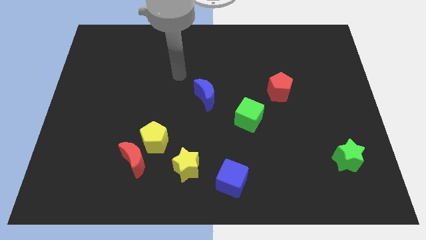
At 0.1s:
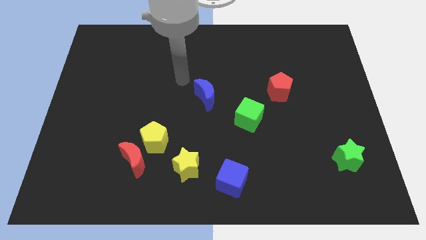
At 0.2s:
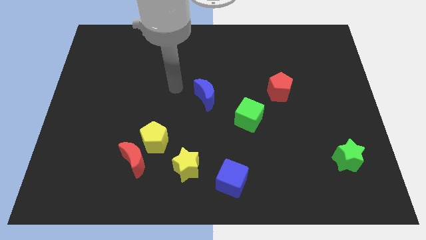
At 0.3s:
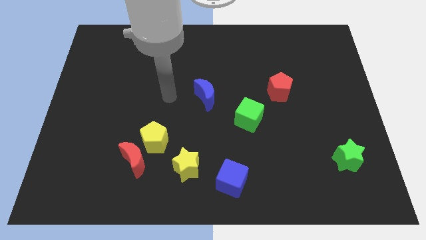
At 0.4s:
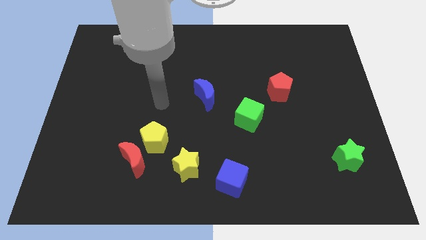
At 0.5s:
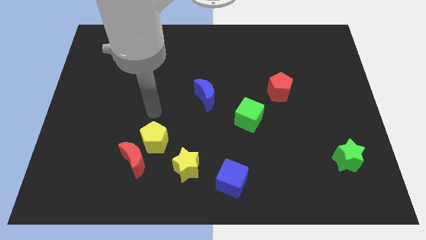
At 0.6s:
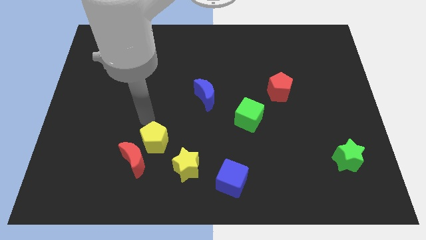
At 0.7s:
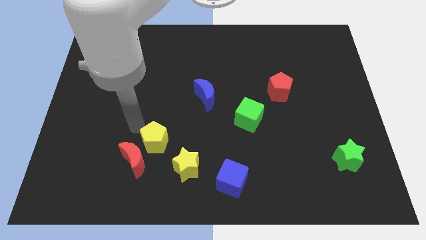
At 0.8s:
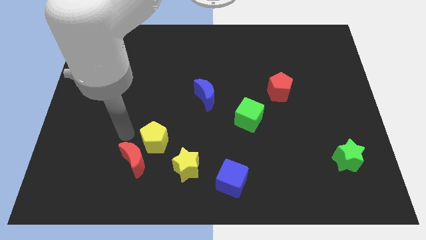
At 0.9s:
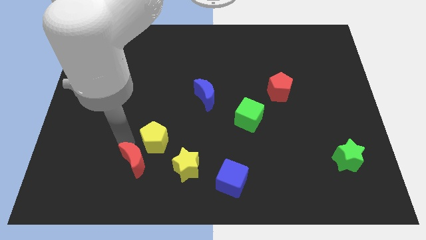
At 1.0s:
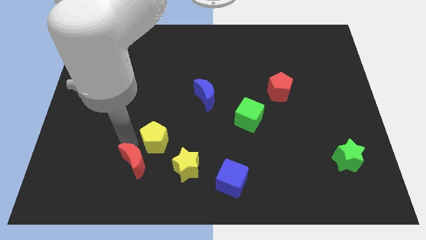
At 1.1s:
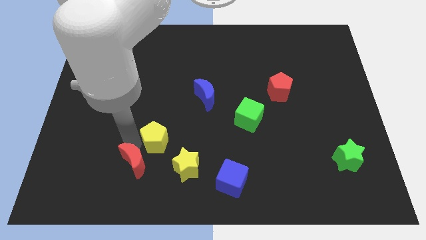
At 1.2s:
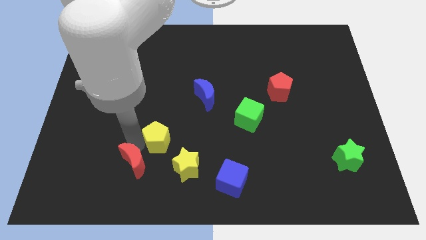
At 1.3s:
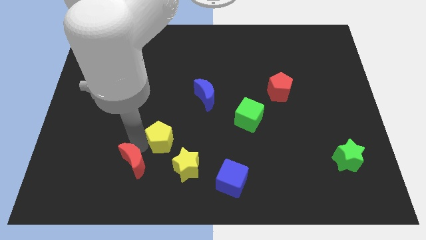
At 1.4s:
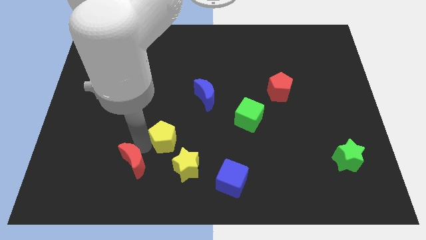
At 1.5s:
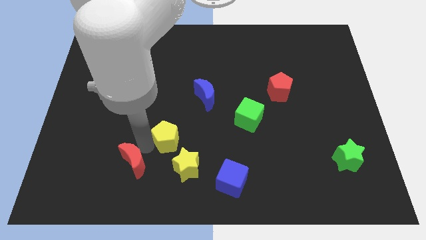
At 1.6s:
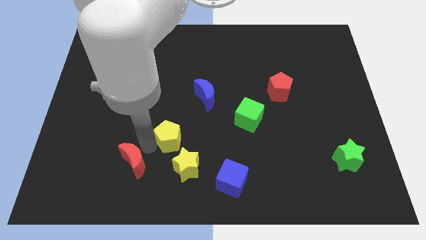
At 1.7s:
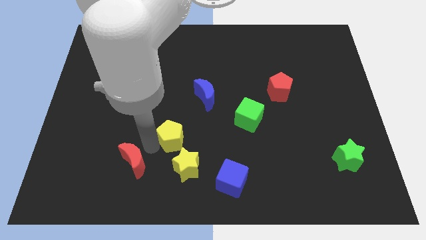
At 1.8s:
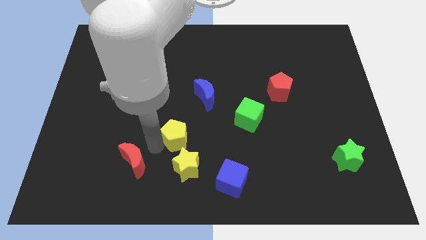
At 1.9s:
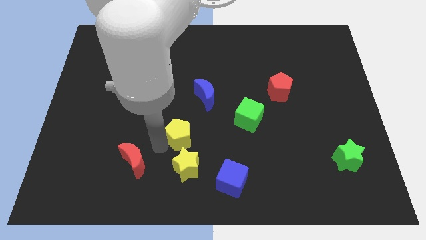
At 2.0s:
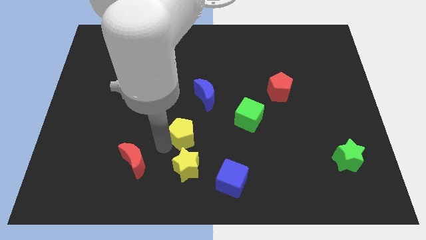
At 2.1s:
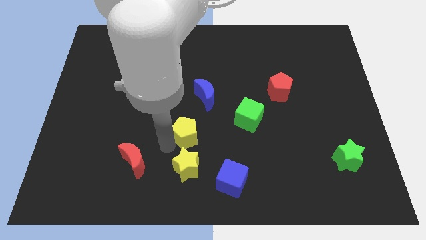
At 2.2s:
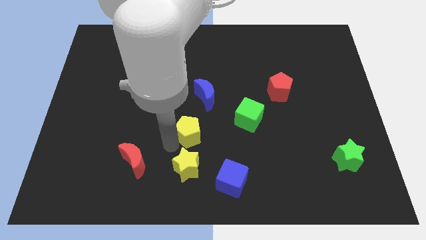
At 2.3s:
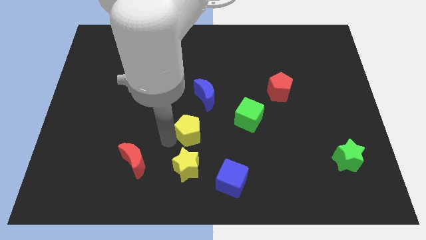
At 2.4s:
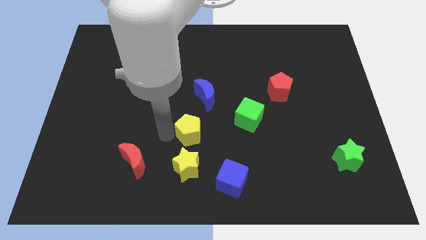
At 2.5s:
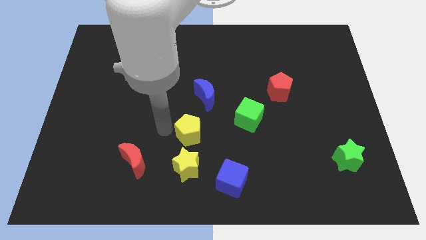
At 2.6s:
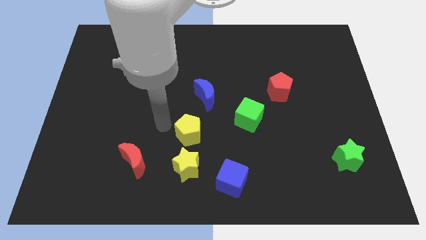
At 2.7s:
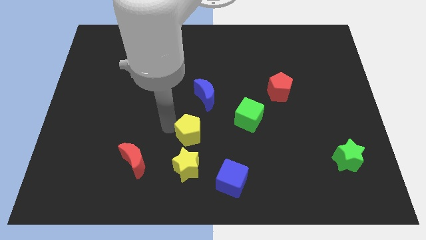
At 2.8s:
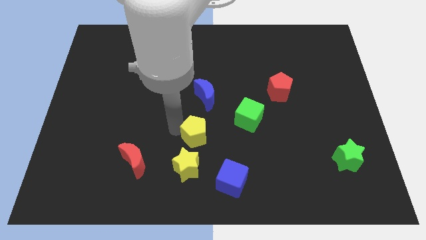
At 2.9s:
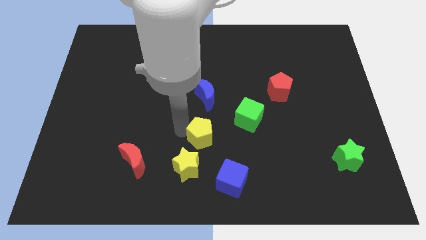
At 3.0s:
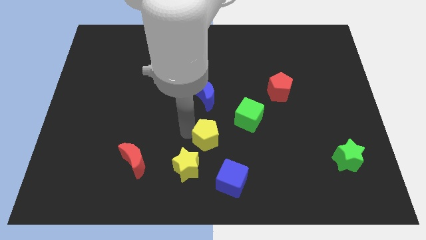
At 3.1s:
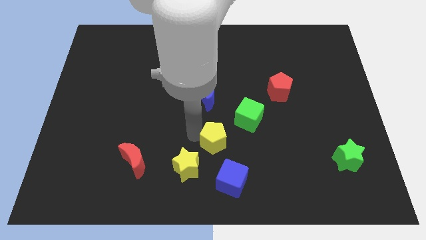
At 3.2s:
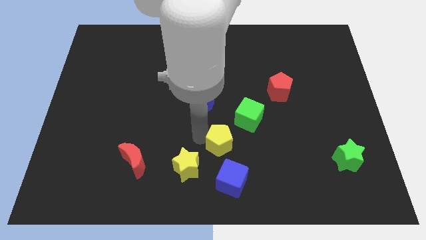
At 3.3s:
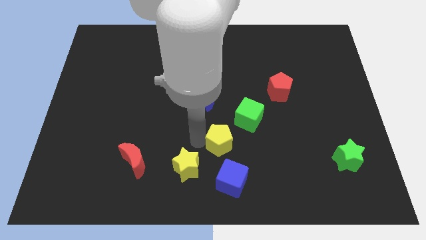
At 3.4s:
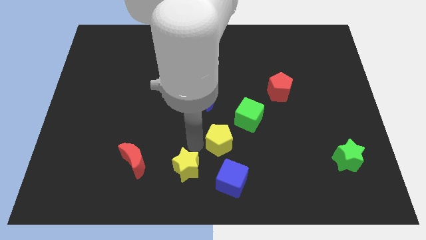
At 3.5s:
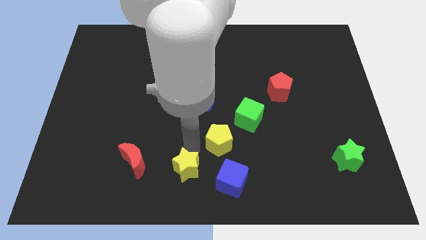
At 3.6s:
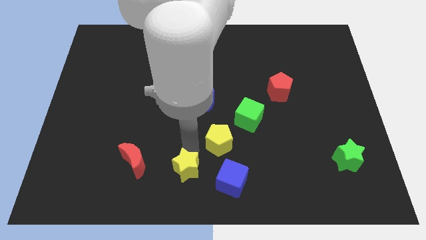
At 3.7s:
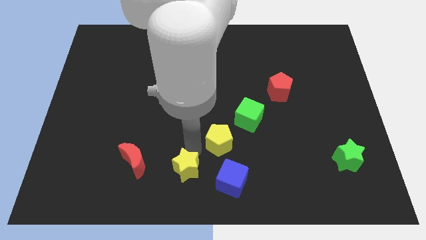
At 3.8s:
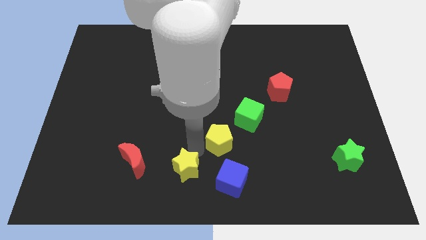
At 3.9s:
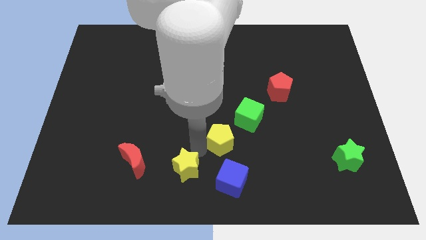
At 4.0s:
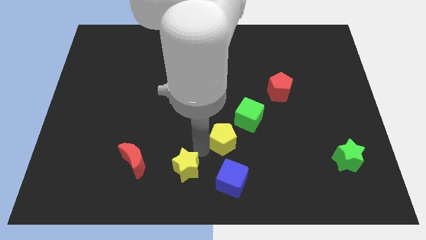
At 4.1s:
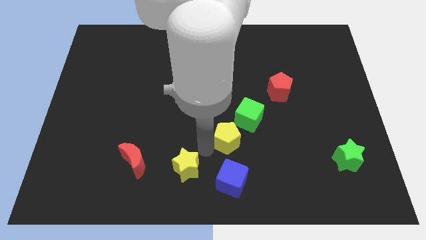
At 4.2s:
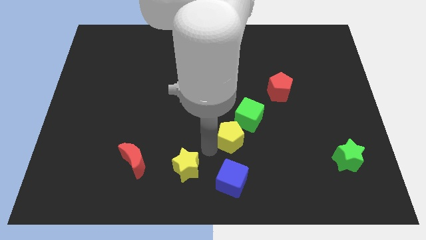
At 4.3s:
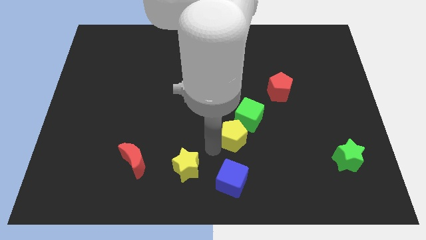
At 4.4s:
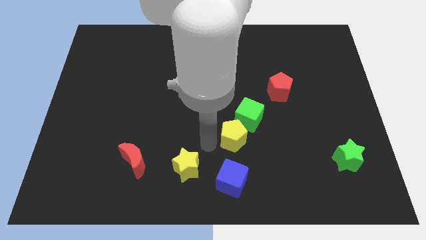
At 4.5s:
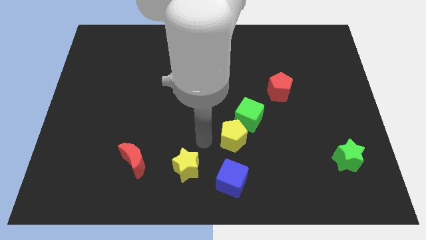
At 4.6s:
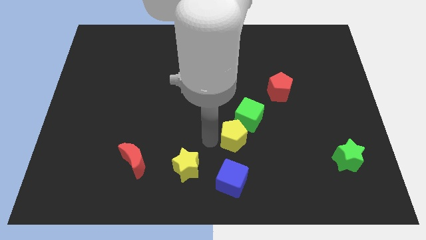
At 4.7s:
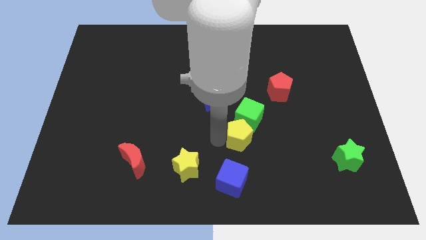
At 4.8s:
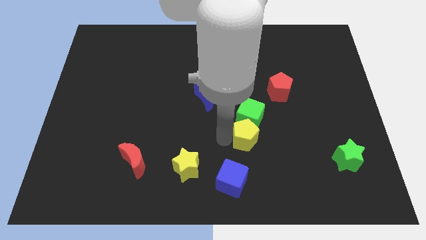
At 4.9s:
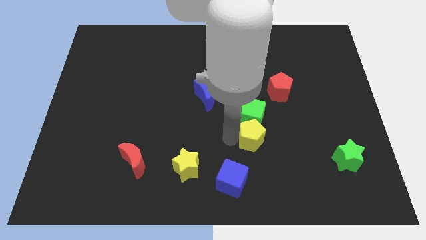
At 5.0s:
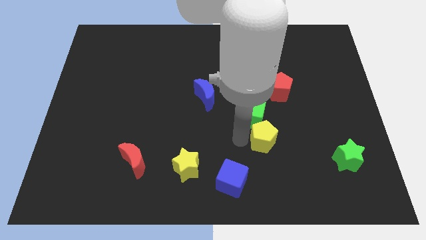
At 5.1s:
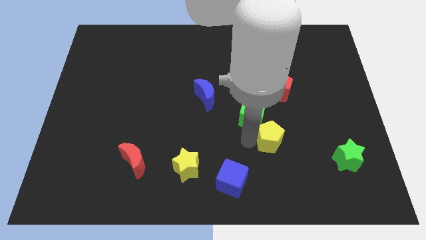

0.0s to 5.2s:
put the yellow pentagon below the red pentagon

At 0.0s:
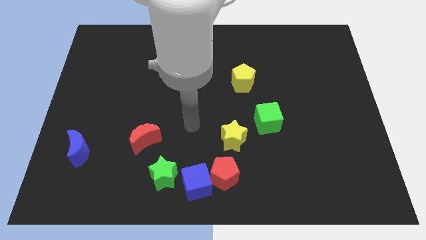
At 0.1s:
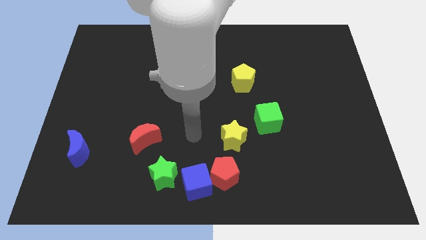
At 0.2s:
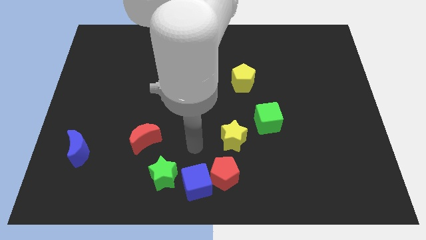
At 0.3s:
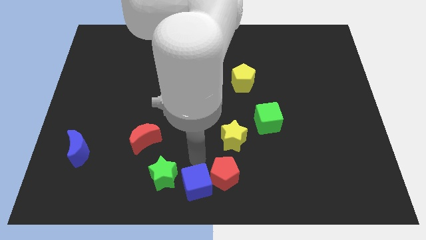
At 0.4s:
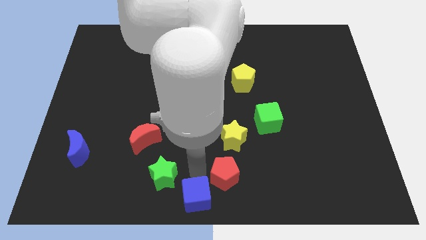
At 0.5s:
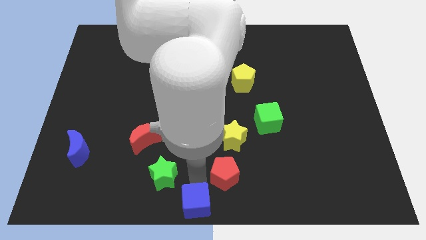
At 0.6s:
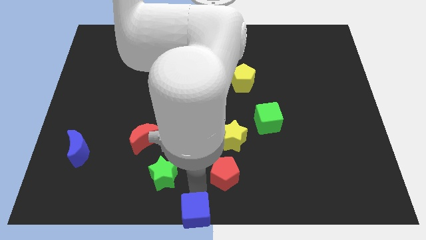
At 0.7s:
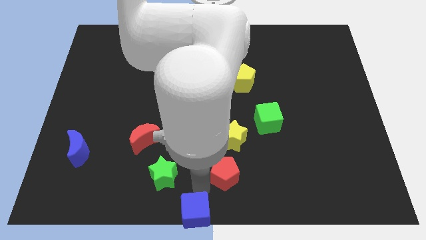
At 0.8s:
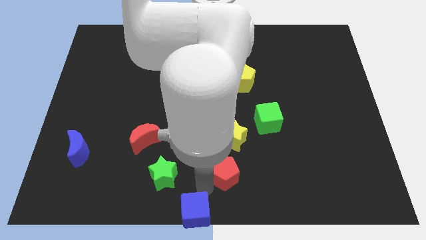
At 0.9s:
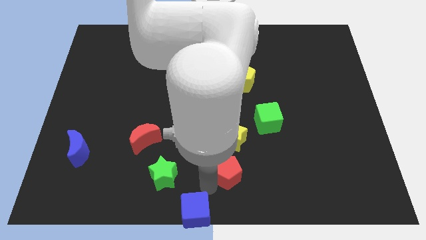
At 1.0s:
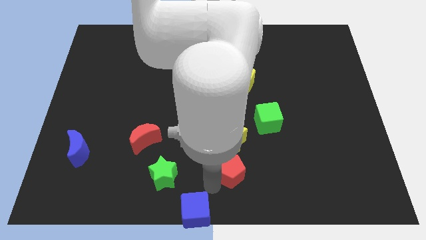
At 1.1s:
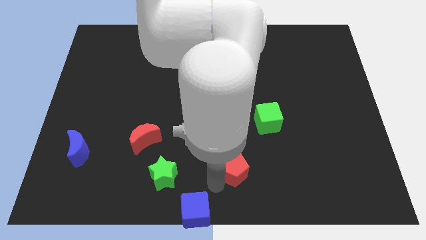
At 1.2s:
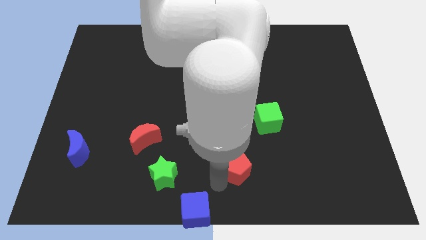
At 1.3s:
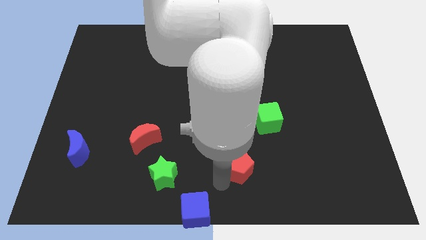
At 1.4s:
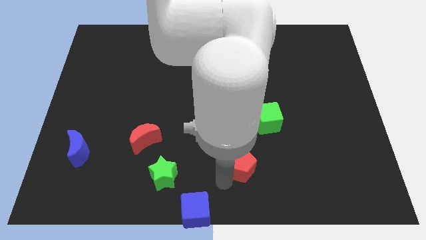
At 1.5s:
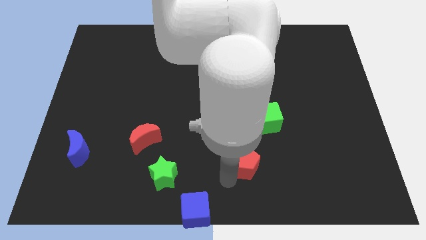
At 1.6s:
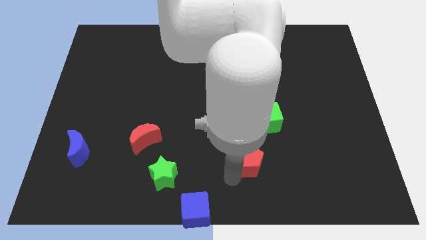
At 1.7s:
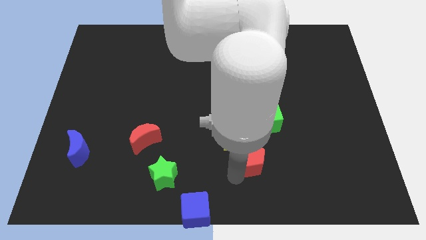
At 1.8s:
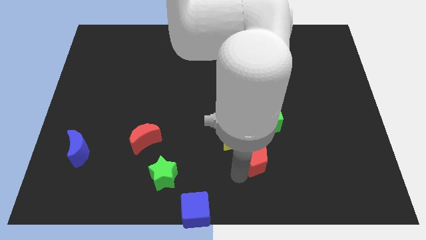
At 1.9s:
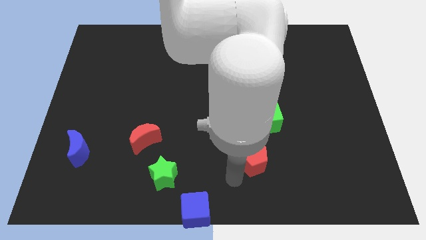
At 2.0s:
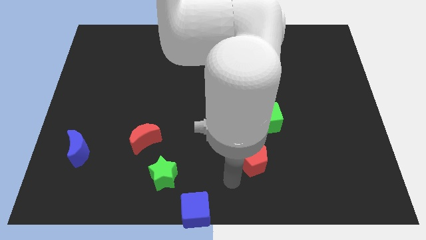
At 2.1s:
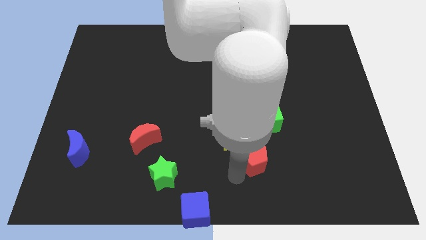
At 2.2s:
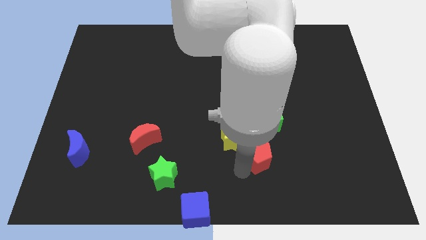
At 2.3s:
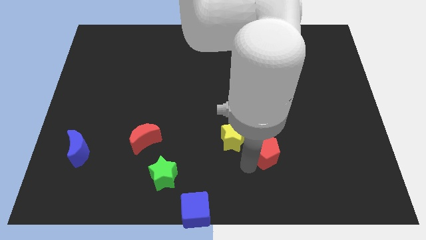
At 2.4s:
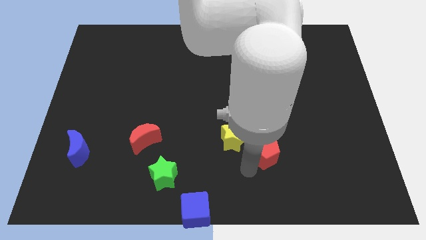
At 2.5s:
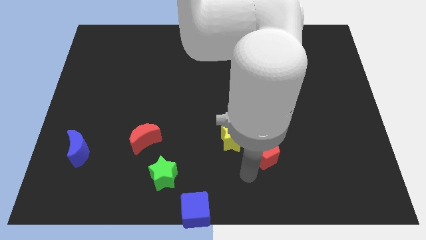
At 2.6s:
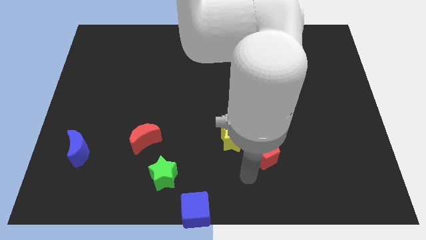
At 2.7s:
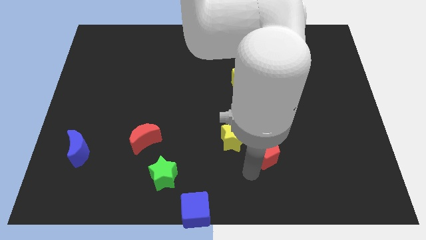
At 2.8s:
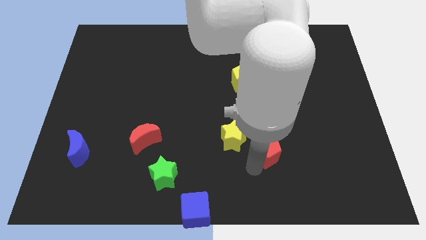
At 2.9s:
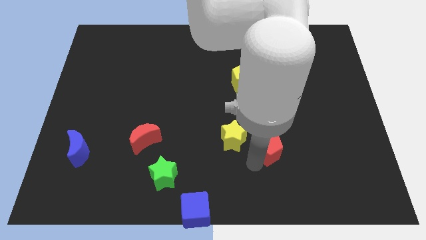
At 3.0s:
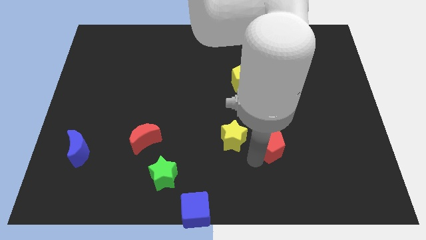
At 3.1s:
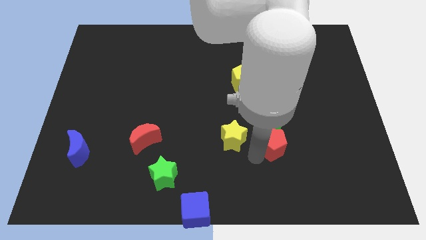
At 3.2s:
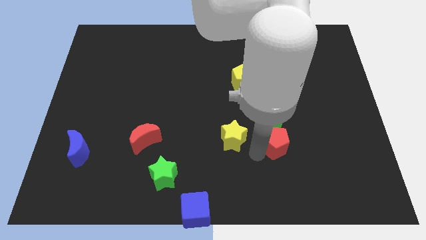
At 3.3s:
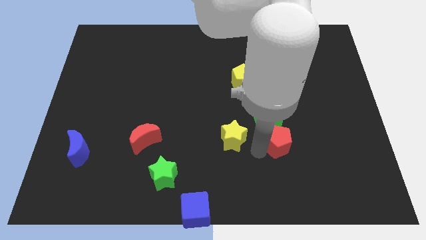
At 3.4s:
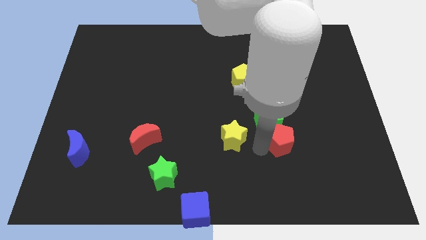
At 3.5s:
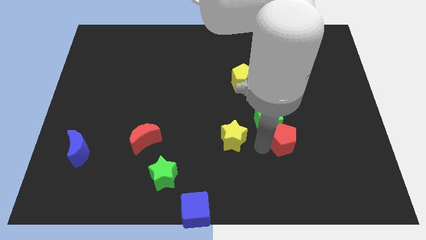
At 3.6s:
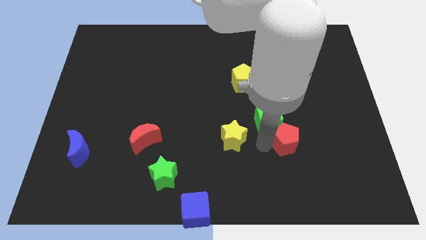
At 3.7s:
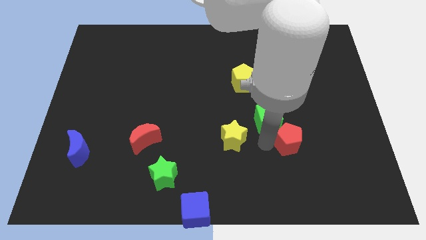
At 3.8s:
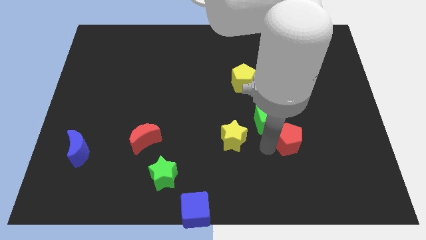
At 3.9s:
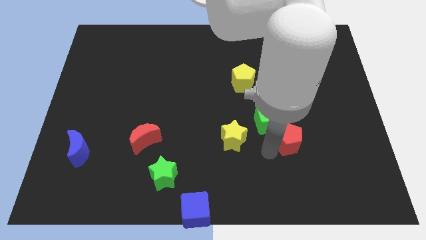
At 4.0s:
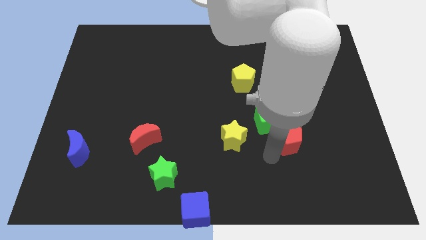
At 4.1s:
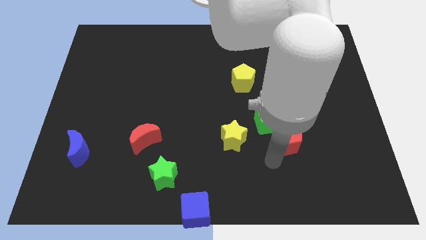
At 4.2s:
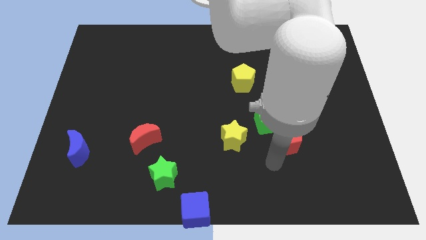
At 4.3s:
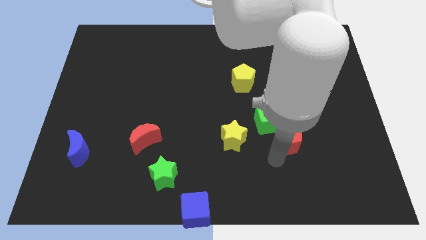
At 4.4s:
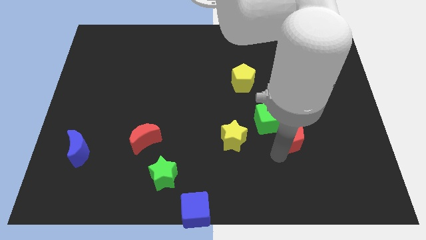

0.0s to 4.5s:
slide the red pentagon just right of the green cube
